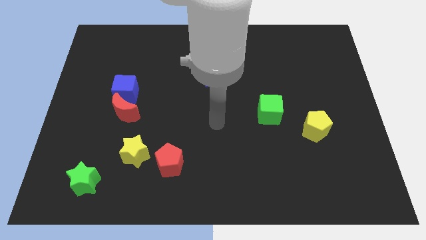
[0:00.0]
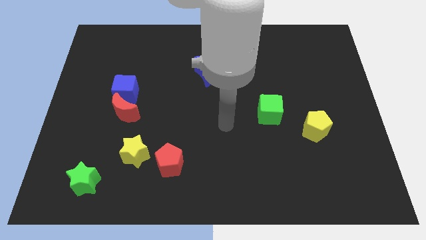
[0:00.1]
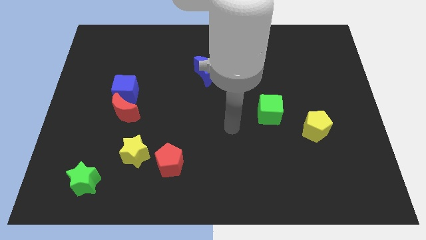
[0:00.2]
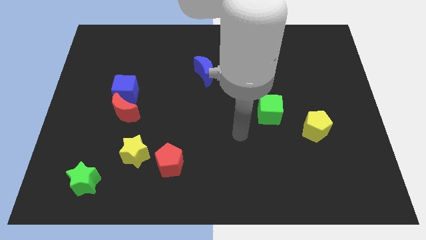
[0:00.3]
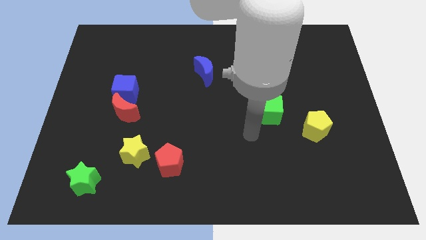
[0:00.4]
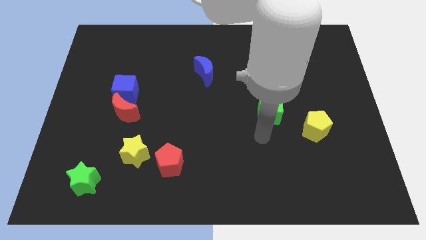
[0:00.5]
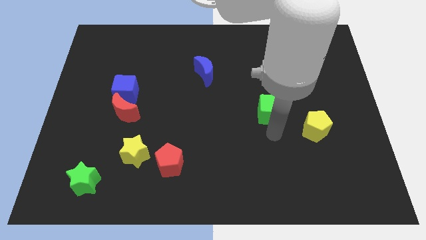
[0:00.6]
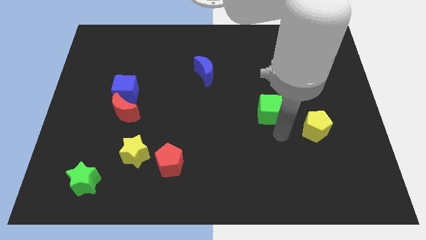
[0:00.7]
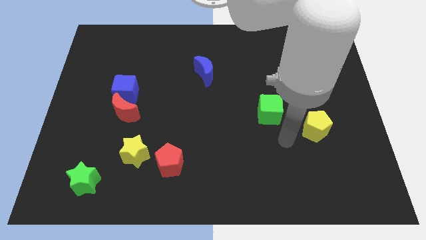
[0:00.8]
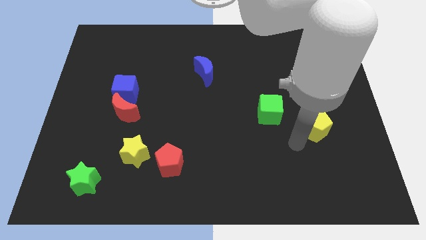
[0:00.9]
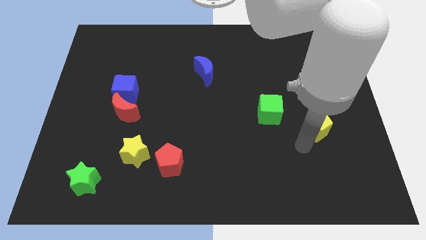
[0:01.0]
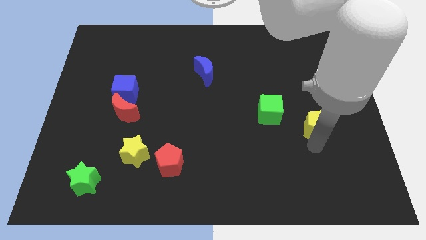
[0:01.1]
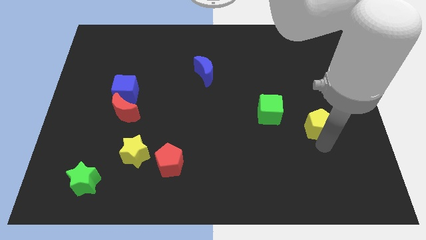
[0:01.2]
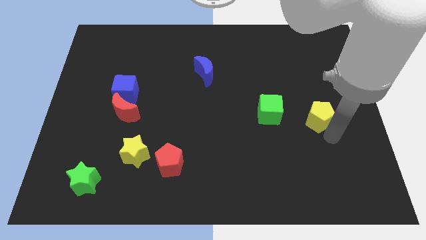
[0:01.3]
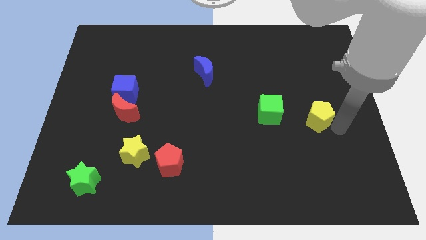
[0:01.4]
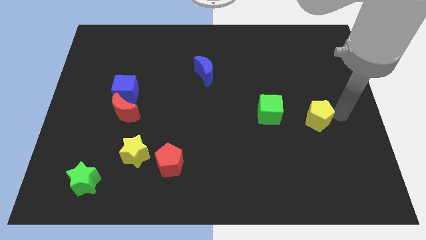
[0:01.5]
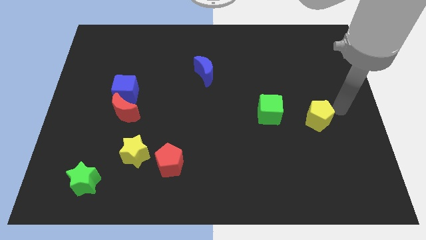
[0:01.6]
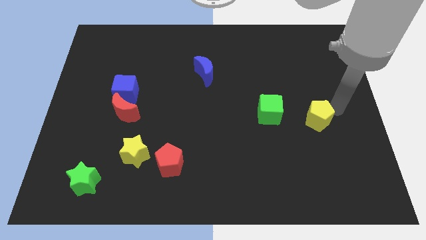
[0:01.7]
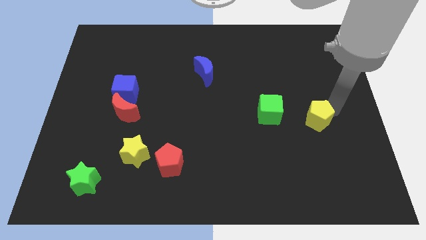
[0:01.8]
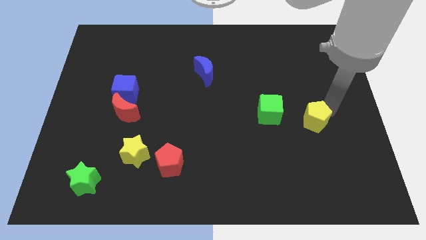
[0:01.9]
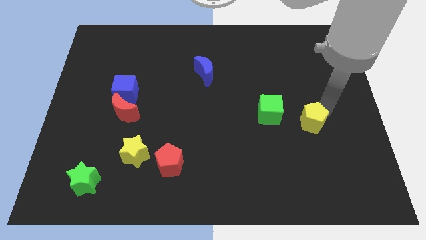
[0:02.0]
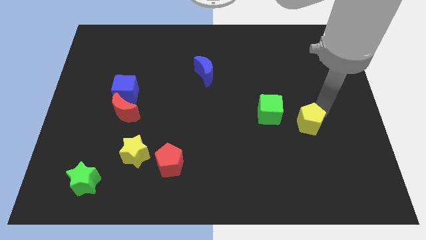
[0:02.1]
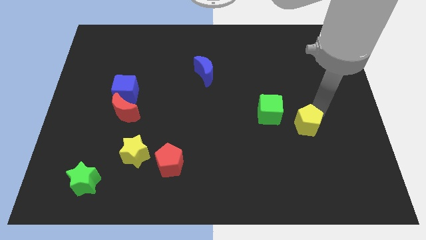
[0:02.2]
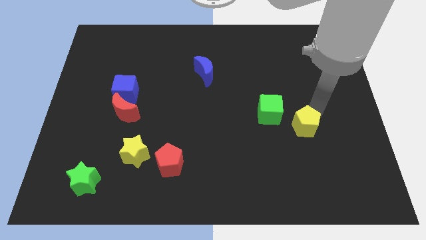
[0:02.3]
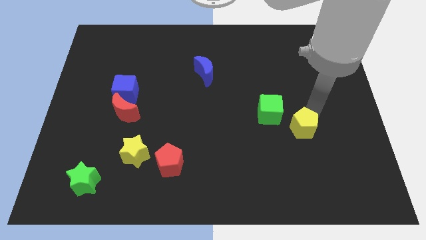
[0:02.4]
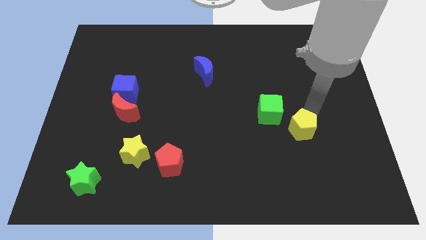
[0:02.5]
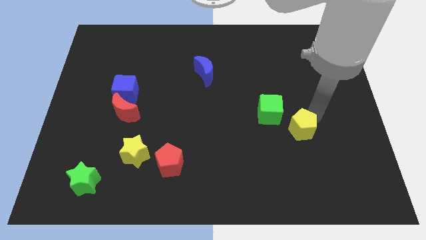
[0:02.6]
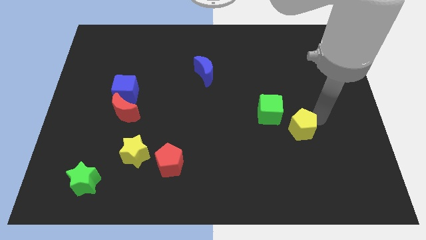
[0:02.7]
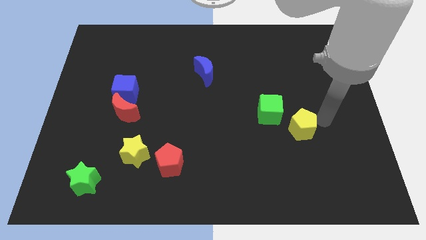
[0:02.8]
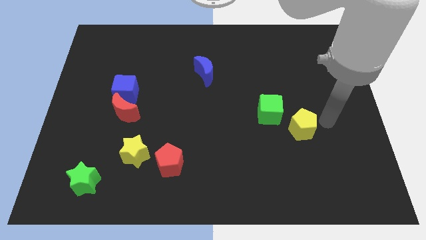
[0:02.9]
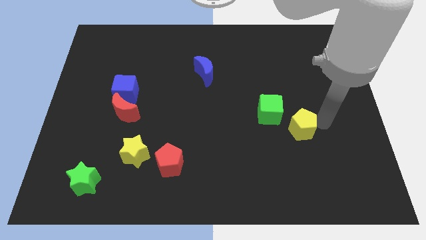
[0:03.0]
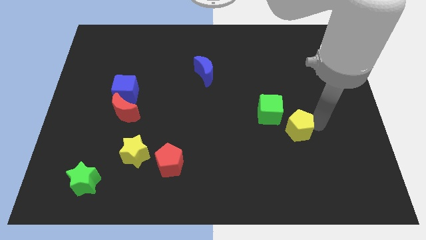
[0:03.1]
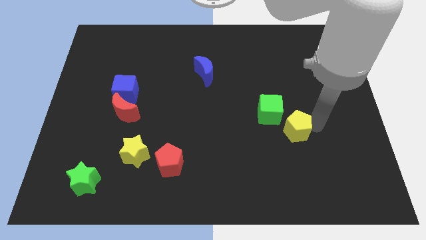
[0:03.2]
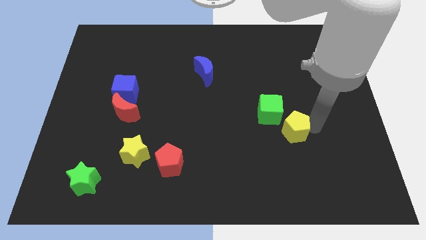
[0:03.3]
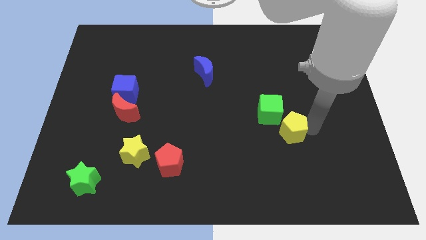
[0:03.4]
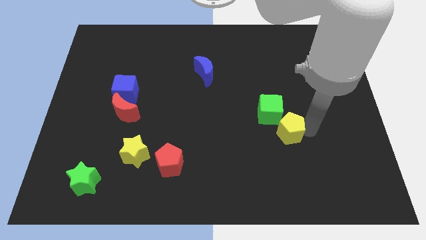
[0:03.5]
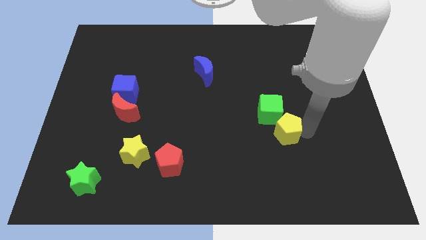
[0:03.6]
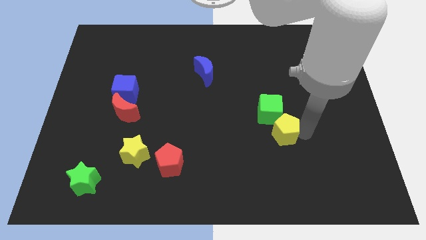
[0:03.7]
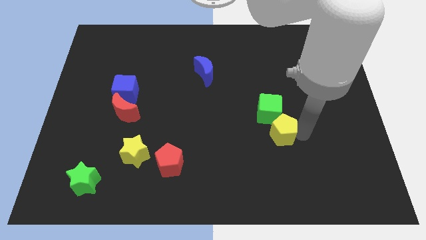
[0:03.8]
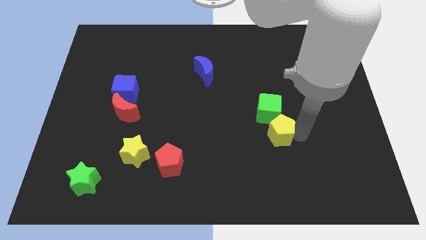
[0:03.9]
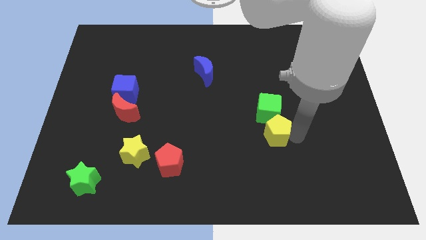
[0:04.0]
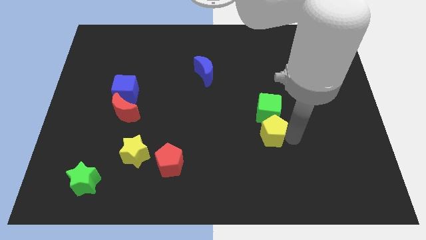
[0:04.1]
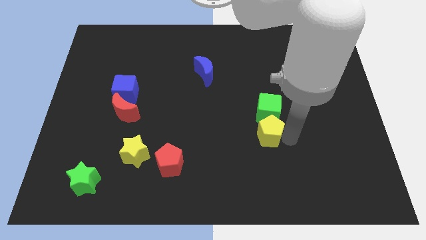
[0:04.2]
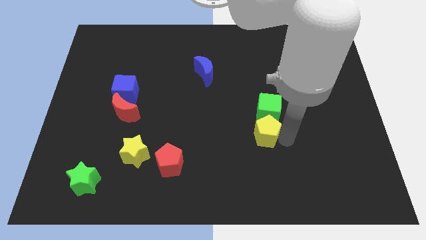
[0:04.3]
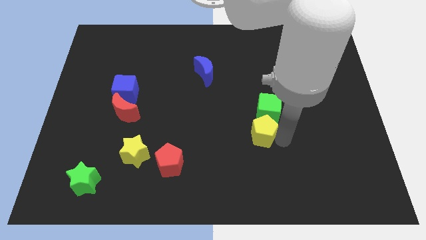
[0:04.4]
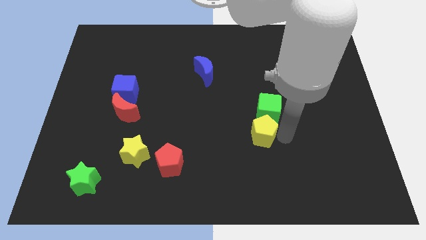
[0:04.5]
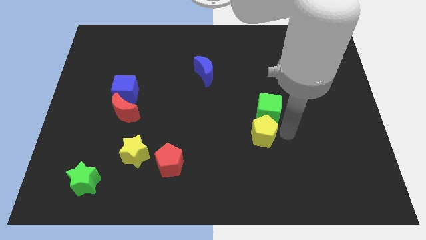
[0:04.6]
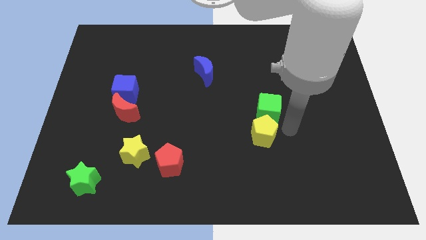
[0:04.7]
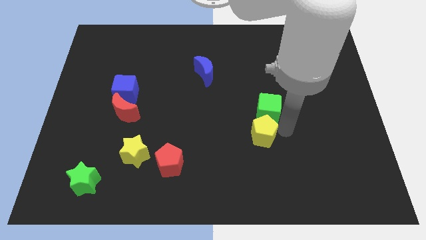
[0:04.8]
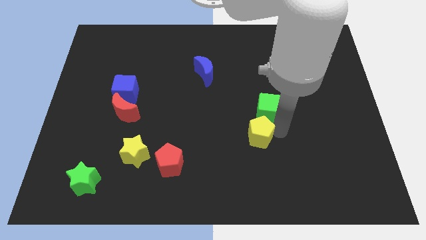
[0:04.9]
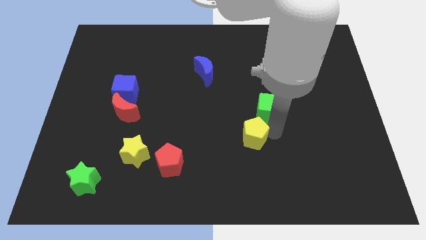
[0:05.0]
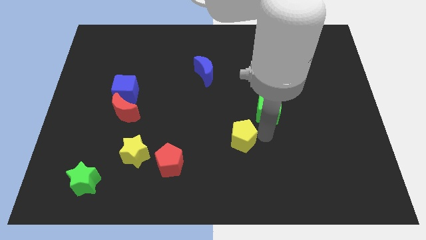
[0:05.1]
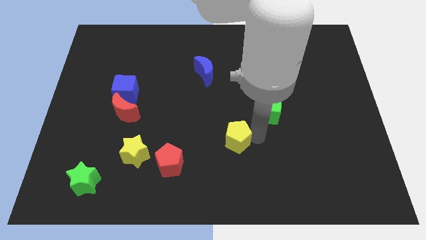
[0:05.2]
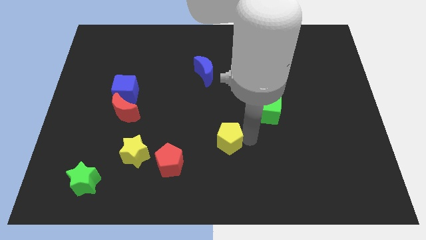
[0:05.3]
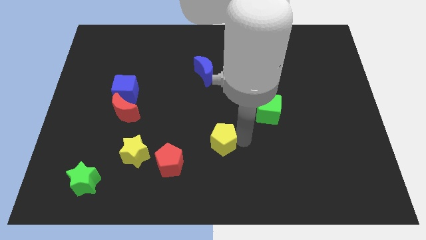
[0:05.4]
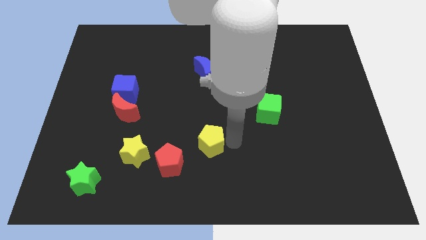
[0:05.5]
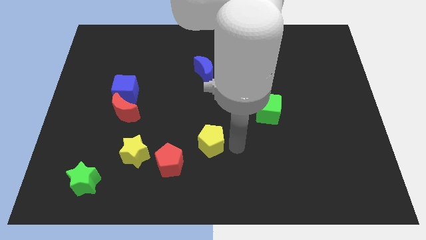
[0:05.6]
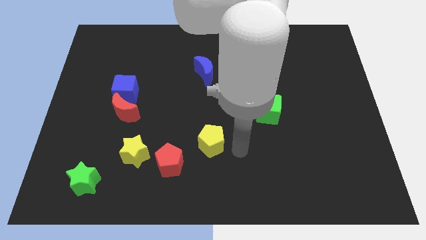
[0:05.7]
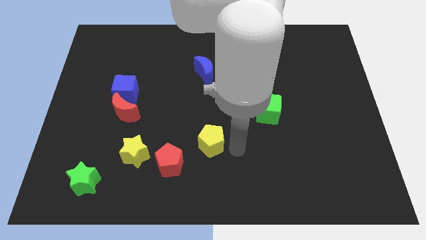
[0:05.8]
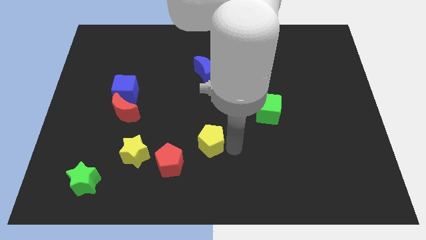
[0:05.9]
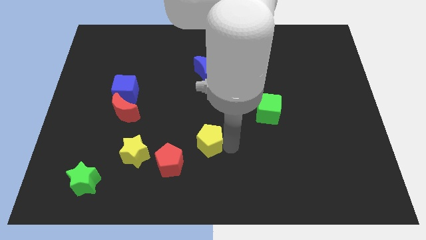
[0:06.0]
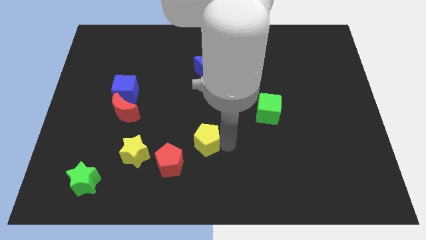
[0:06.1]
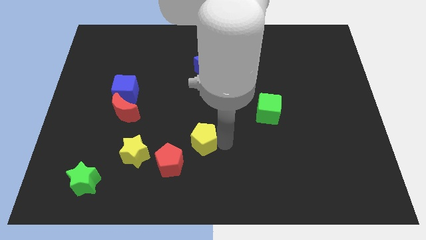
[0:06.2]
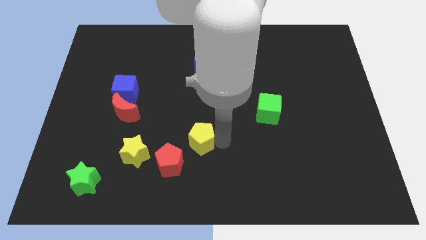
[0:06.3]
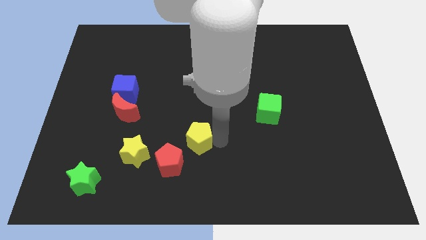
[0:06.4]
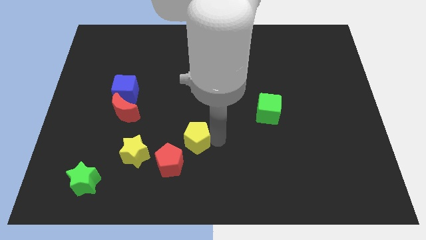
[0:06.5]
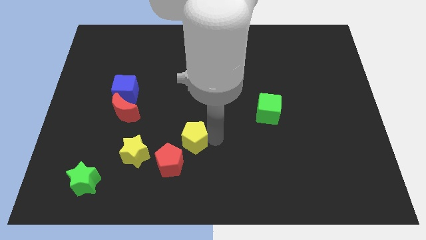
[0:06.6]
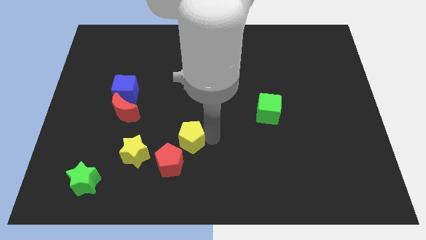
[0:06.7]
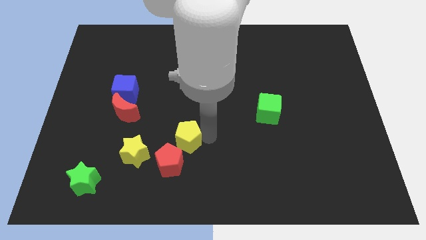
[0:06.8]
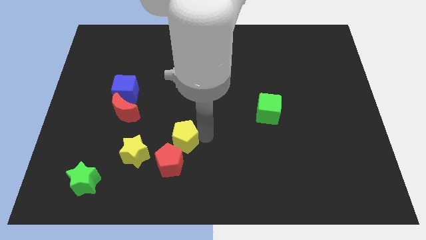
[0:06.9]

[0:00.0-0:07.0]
put the yellow pentagon to the top right side of the yellow star

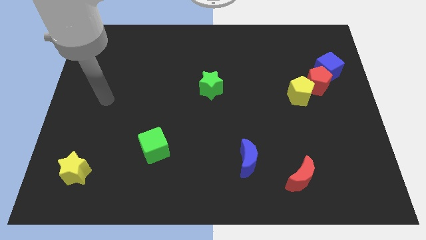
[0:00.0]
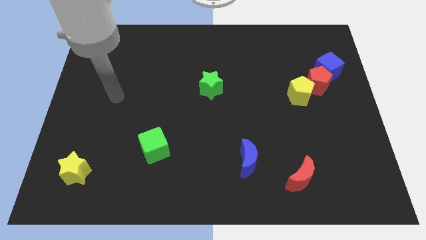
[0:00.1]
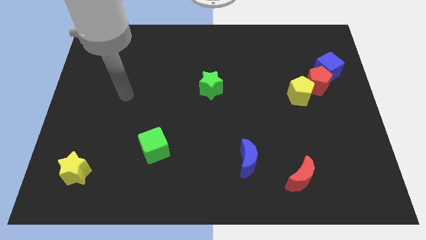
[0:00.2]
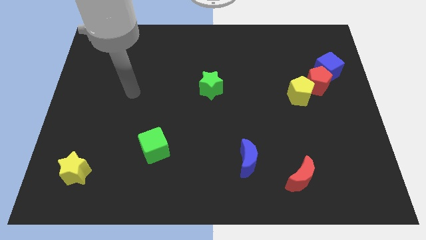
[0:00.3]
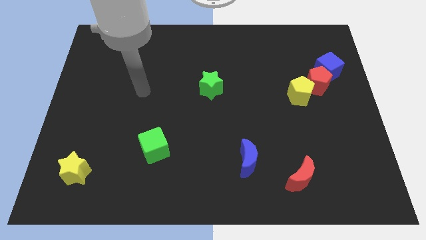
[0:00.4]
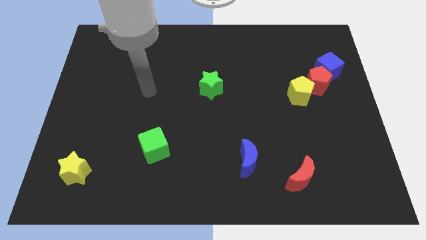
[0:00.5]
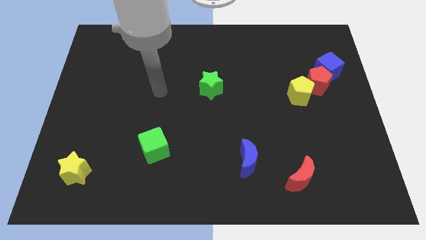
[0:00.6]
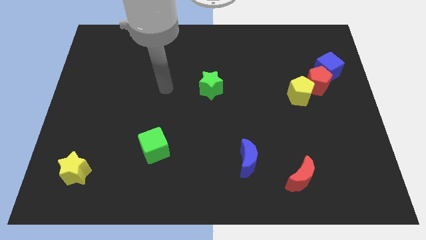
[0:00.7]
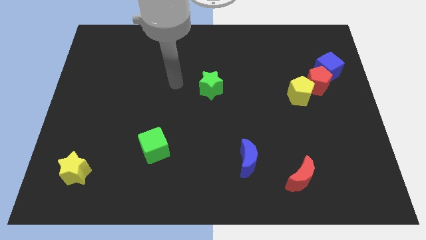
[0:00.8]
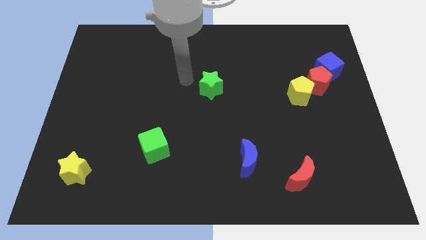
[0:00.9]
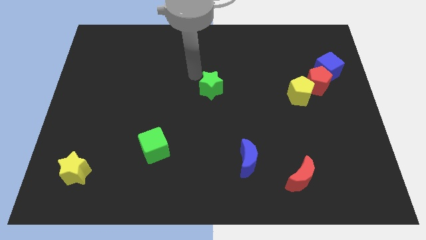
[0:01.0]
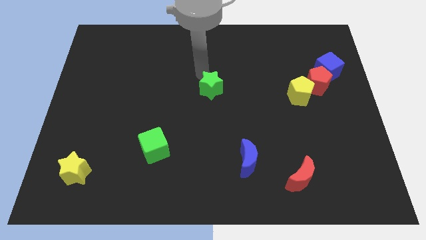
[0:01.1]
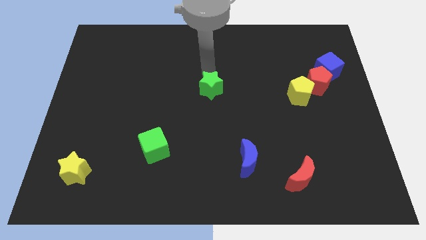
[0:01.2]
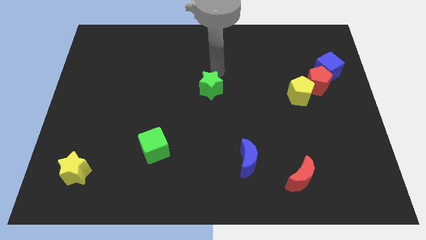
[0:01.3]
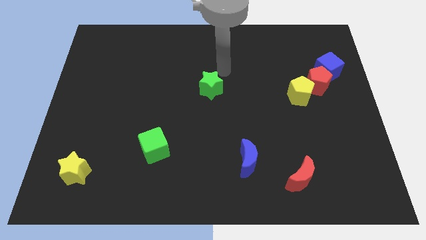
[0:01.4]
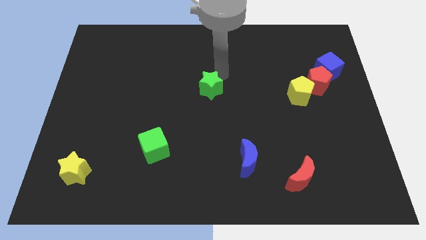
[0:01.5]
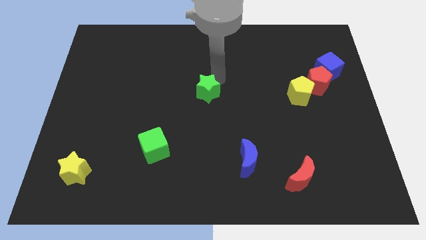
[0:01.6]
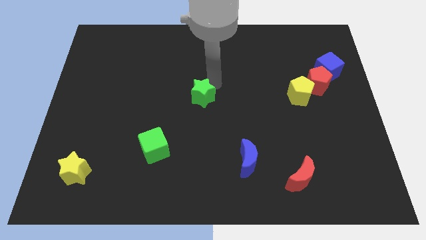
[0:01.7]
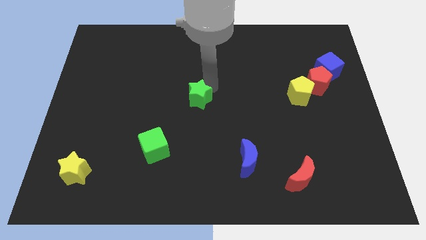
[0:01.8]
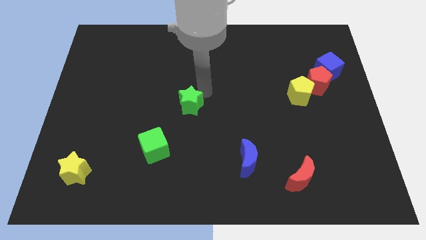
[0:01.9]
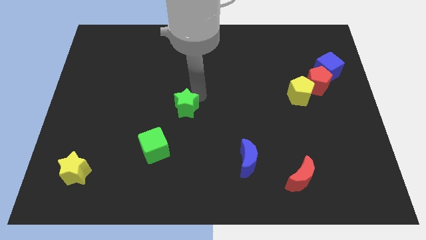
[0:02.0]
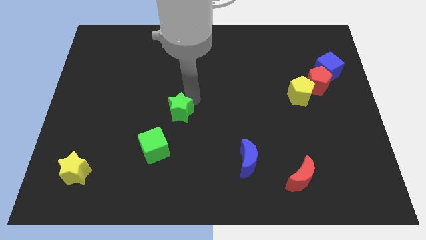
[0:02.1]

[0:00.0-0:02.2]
put the green star to the top right side of the green cube
